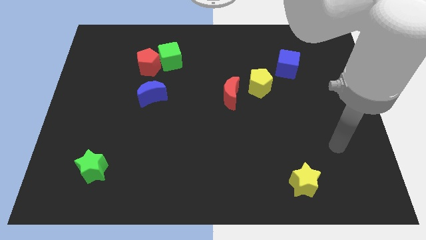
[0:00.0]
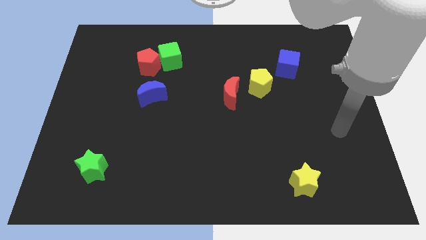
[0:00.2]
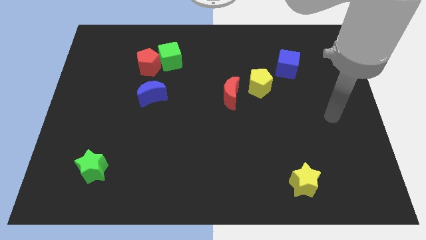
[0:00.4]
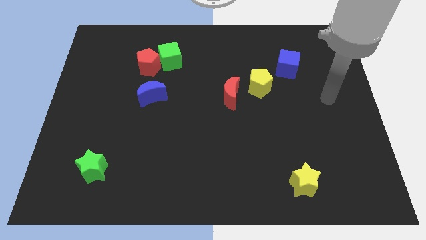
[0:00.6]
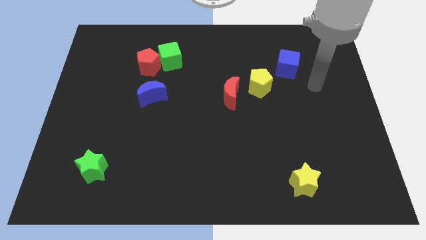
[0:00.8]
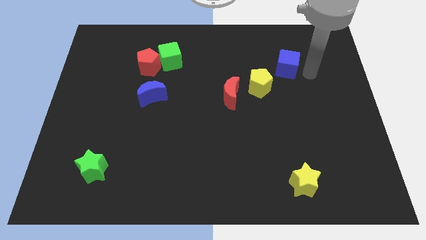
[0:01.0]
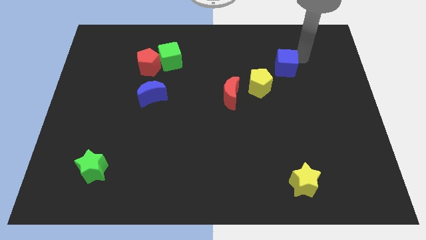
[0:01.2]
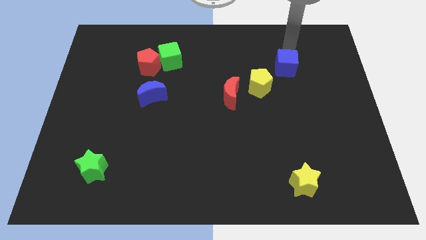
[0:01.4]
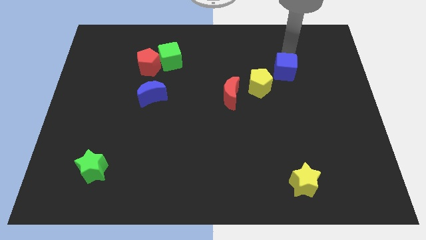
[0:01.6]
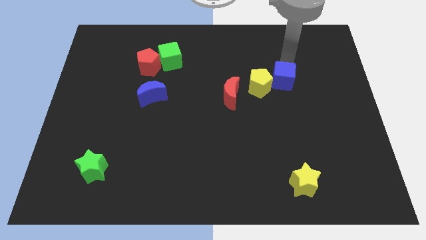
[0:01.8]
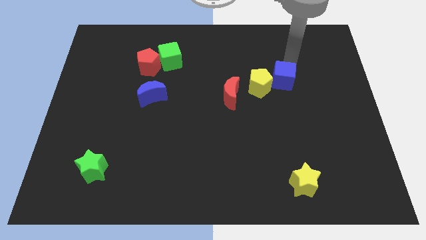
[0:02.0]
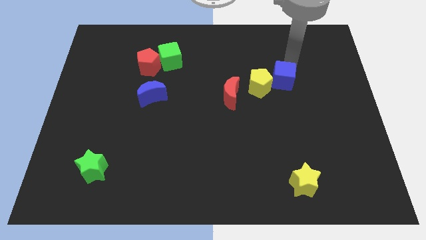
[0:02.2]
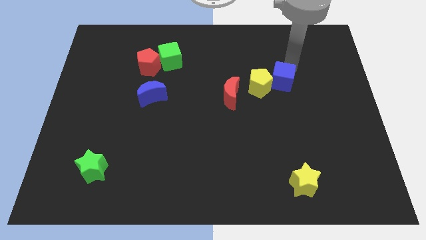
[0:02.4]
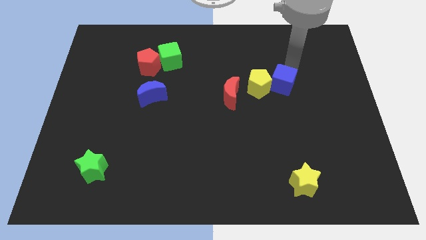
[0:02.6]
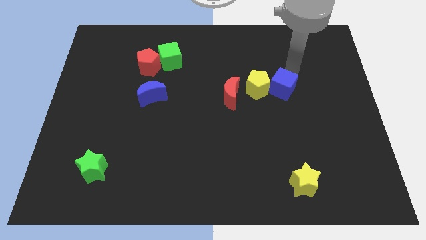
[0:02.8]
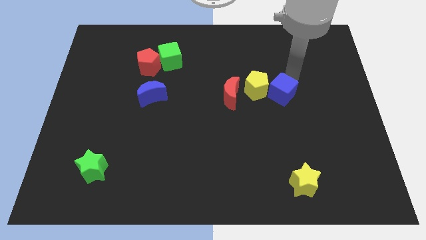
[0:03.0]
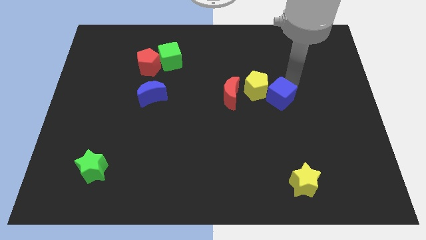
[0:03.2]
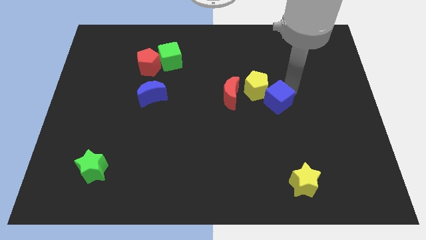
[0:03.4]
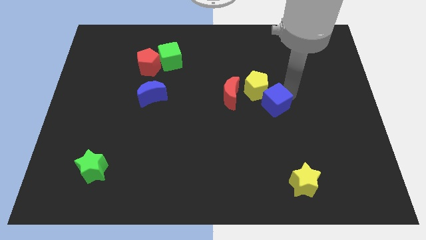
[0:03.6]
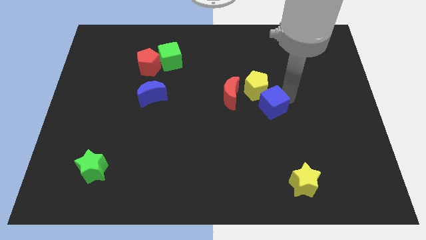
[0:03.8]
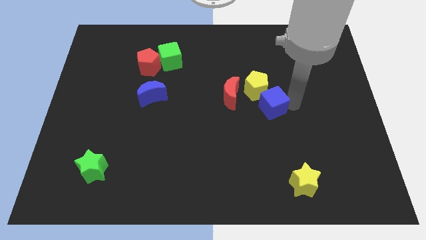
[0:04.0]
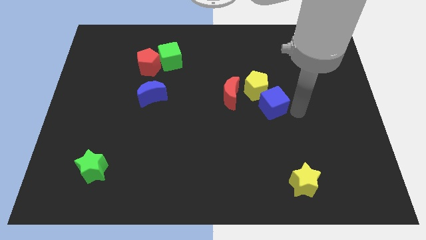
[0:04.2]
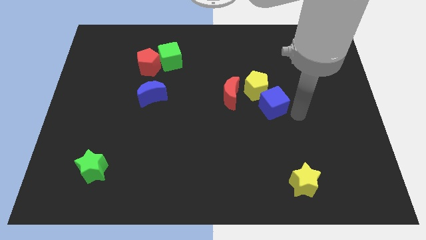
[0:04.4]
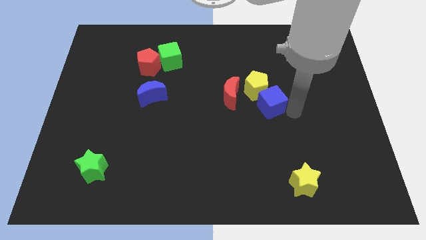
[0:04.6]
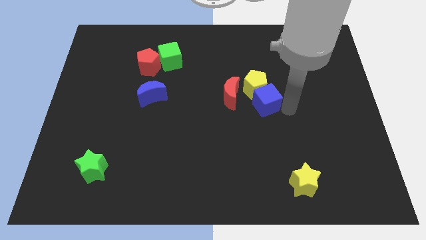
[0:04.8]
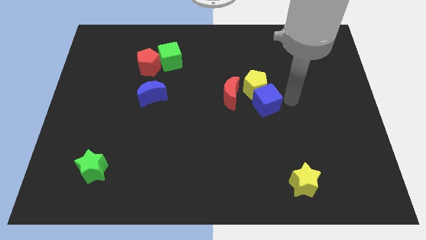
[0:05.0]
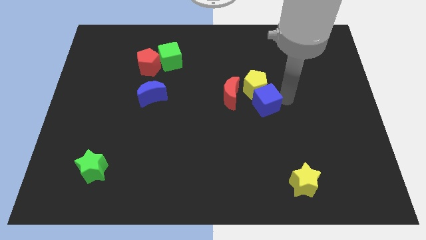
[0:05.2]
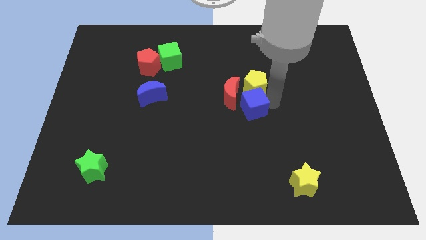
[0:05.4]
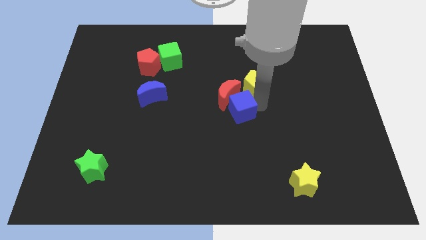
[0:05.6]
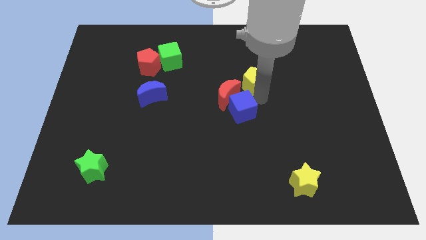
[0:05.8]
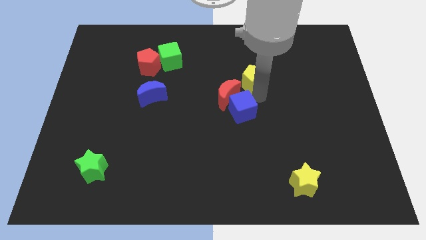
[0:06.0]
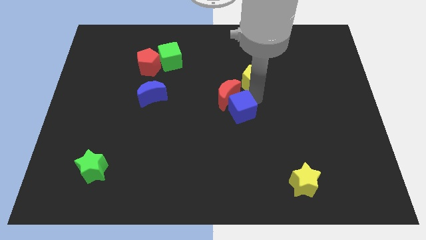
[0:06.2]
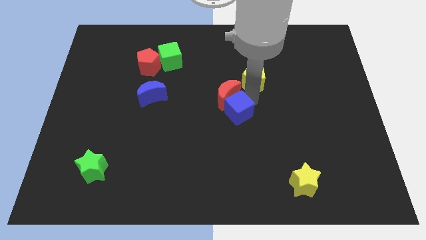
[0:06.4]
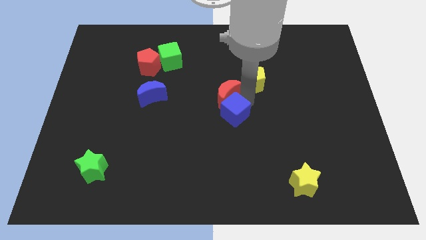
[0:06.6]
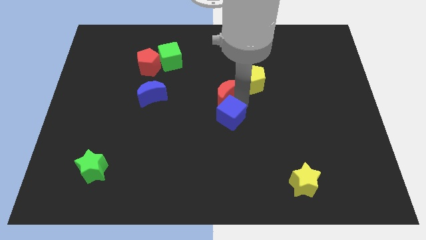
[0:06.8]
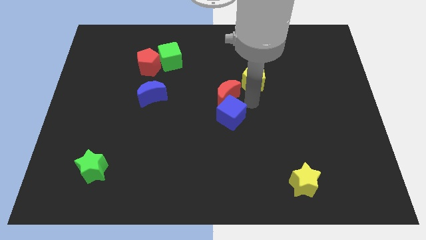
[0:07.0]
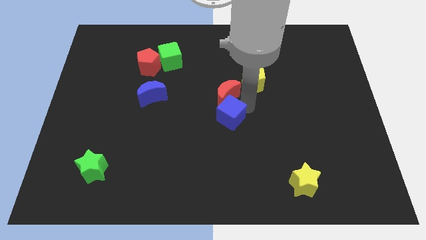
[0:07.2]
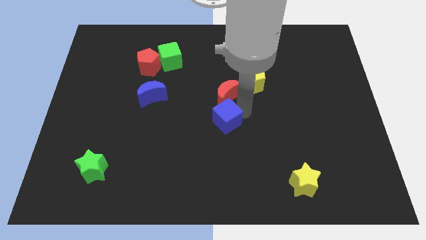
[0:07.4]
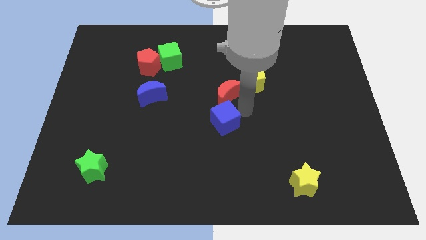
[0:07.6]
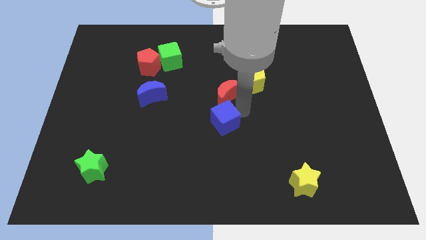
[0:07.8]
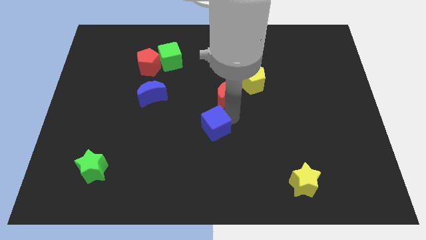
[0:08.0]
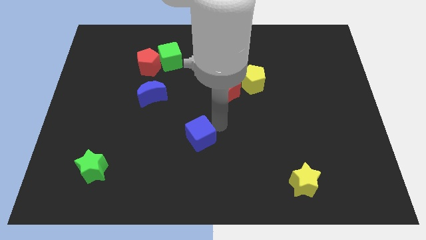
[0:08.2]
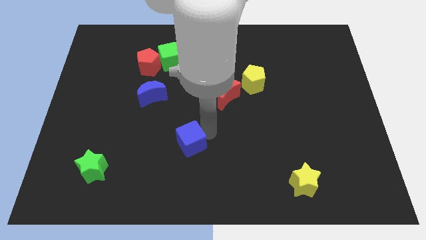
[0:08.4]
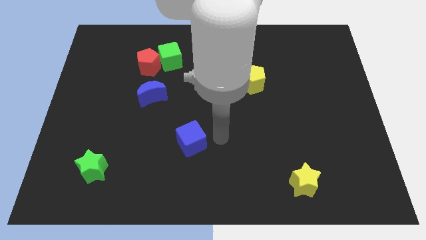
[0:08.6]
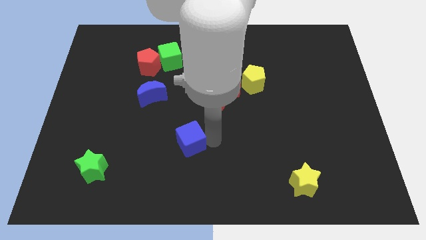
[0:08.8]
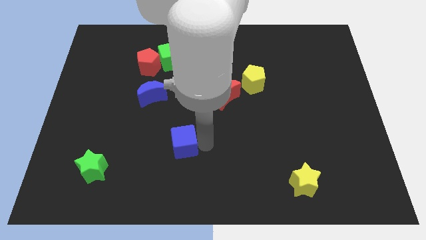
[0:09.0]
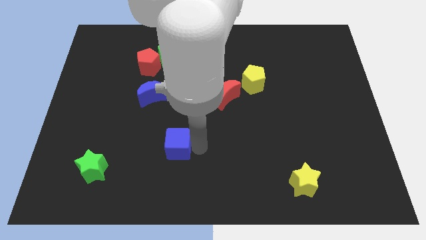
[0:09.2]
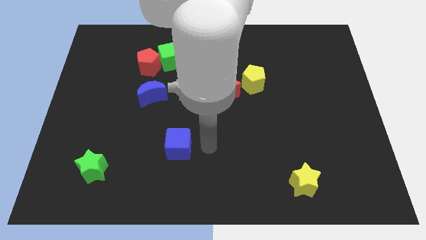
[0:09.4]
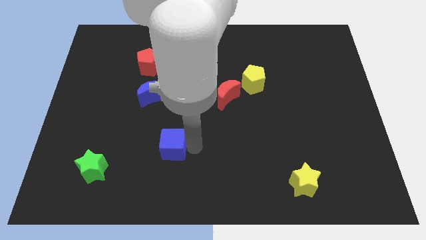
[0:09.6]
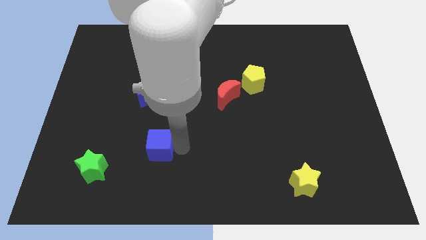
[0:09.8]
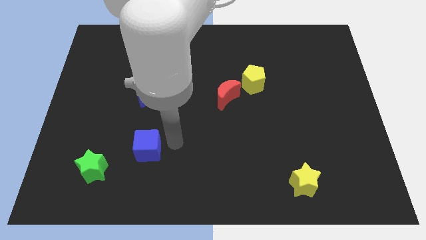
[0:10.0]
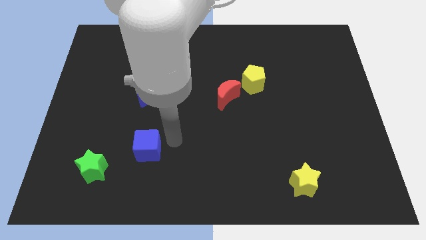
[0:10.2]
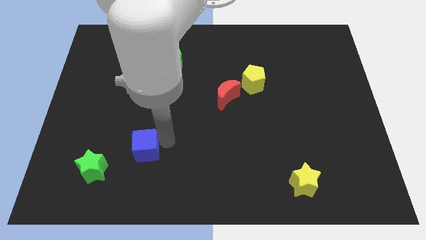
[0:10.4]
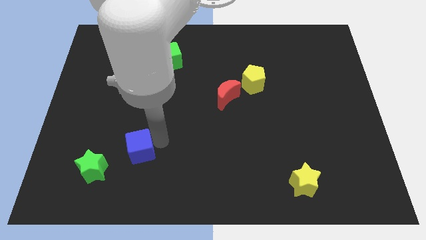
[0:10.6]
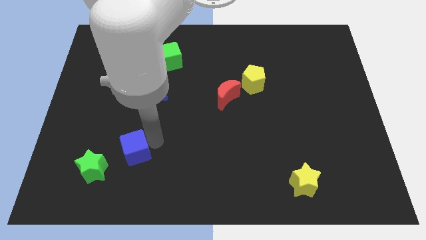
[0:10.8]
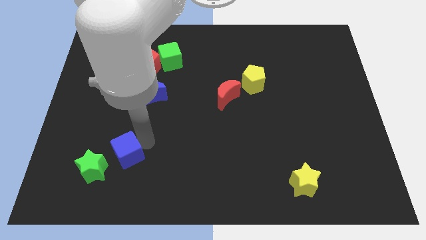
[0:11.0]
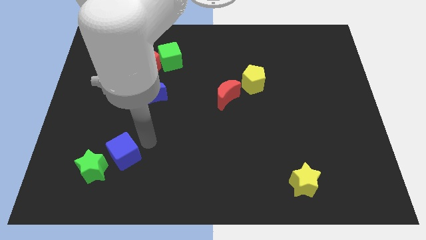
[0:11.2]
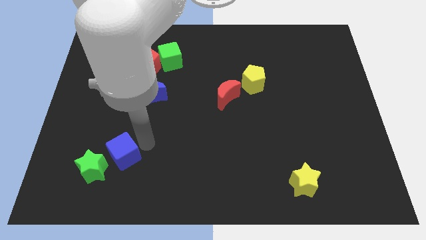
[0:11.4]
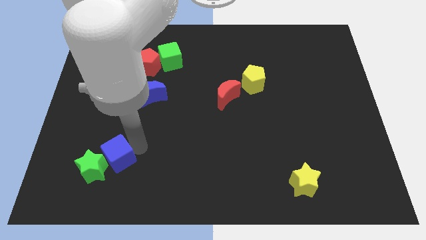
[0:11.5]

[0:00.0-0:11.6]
push the blue cube close to the green star

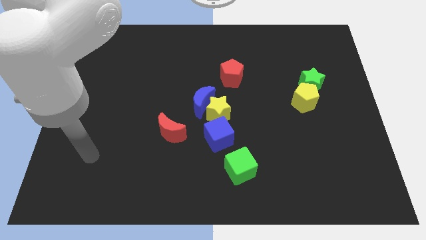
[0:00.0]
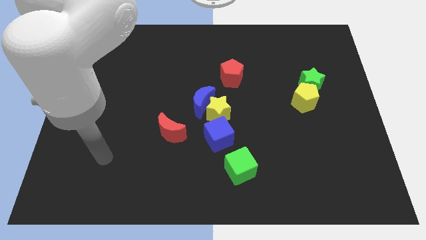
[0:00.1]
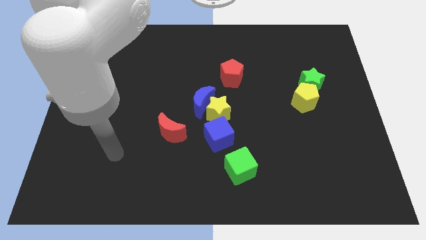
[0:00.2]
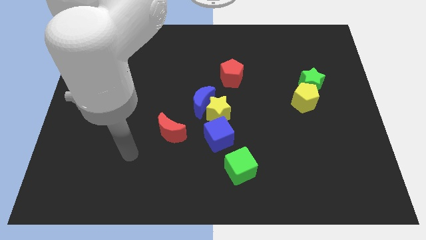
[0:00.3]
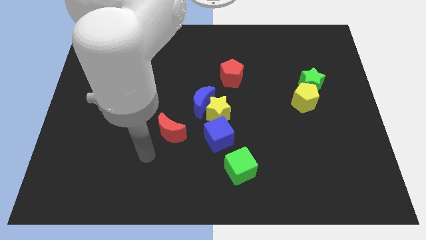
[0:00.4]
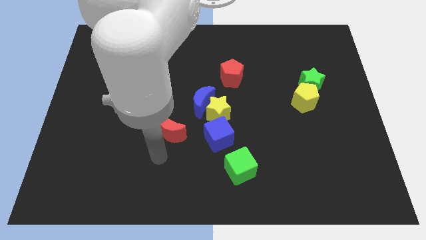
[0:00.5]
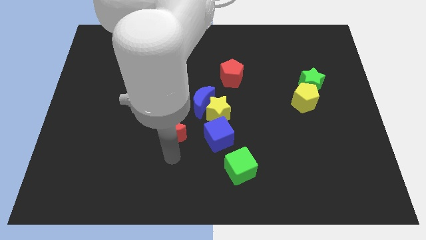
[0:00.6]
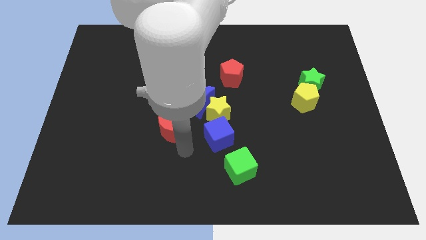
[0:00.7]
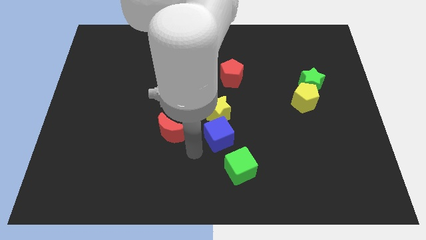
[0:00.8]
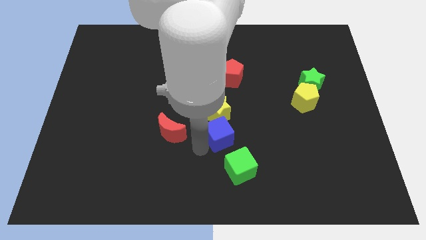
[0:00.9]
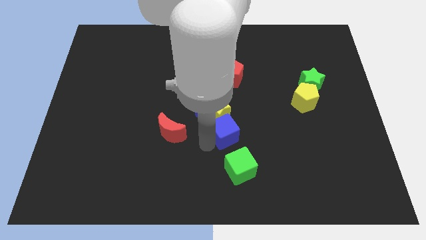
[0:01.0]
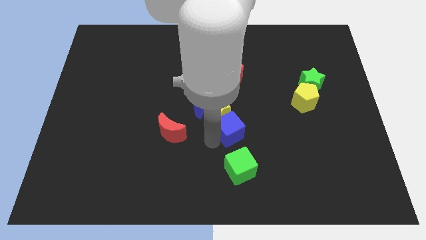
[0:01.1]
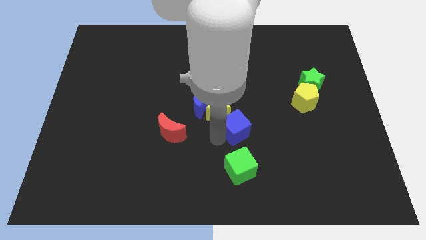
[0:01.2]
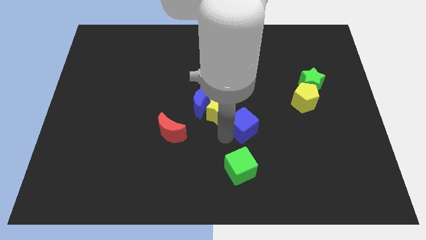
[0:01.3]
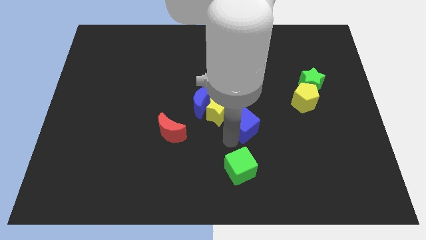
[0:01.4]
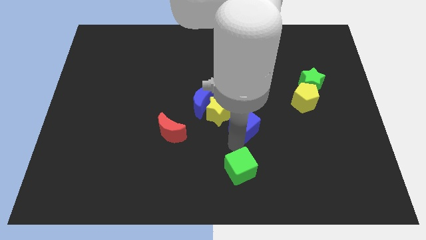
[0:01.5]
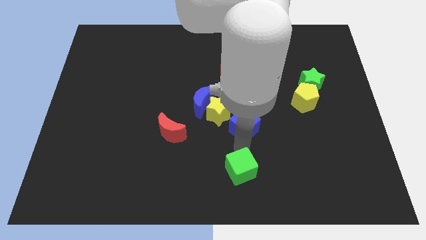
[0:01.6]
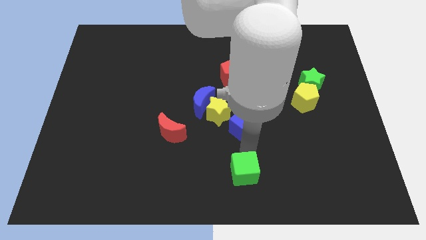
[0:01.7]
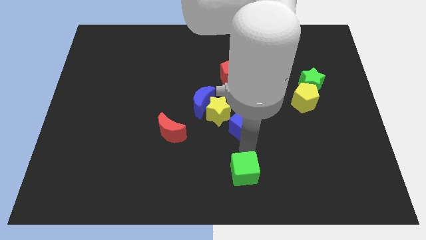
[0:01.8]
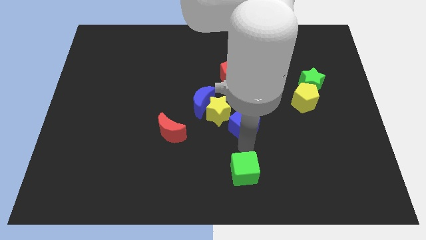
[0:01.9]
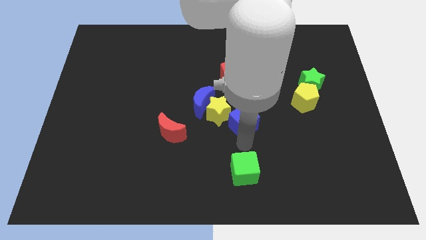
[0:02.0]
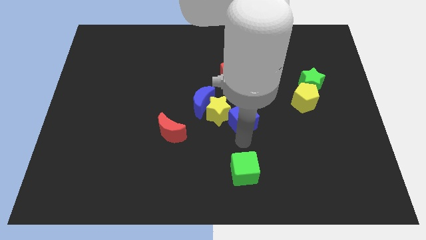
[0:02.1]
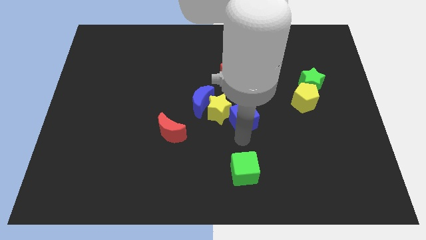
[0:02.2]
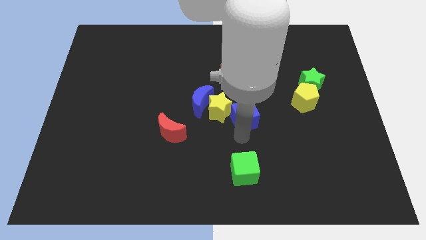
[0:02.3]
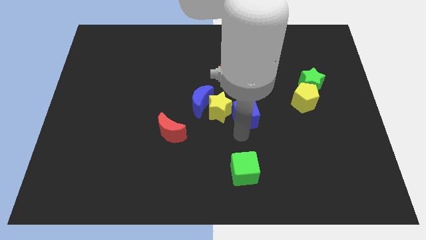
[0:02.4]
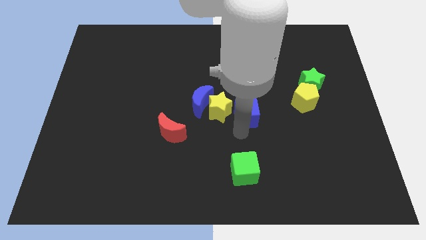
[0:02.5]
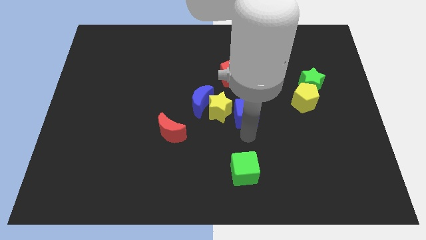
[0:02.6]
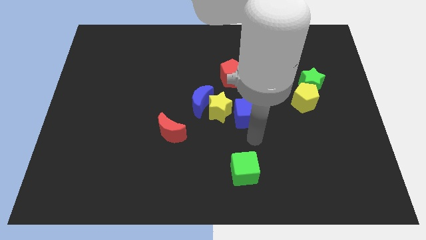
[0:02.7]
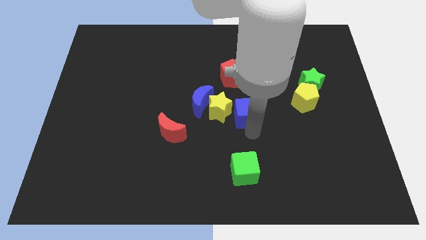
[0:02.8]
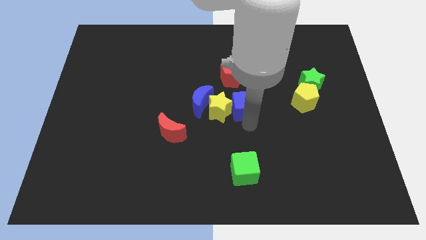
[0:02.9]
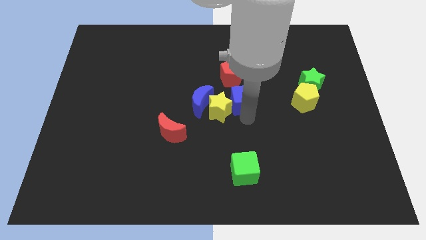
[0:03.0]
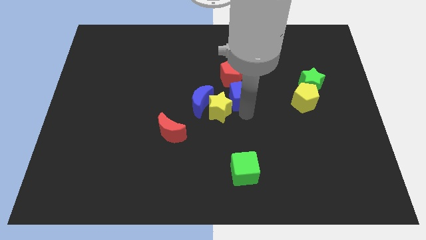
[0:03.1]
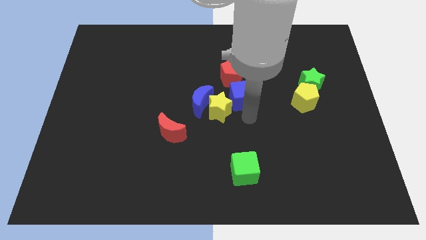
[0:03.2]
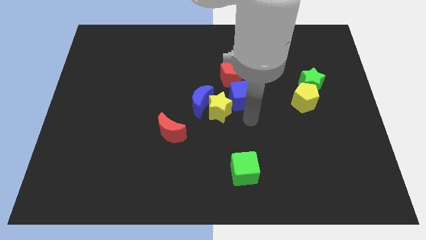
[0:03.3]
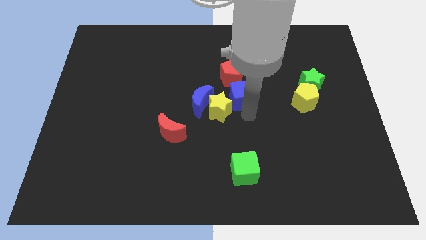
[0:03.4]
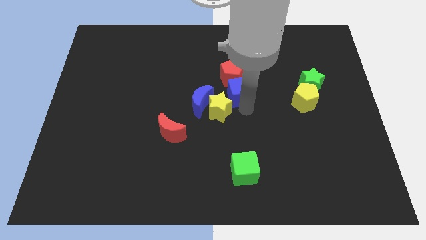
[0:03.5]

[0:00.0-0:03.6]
slide the blue cube to the red pentagon
